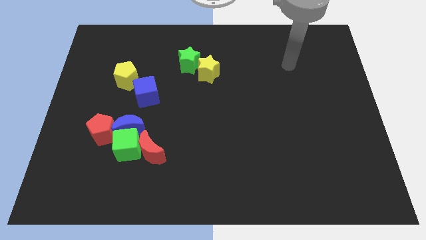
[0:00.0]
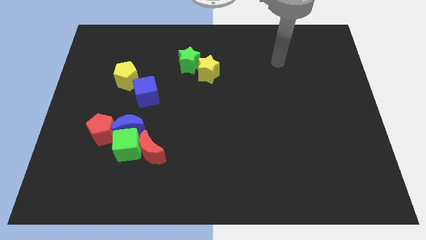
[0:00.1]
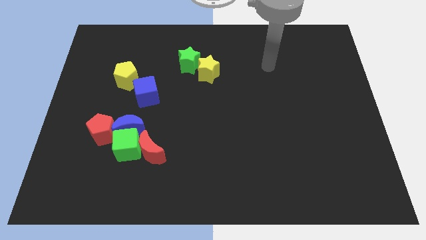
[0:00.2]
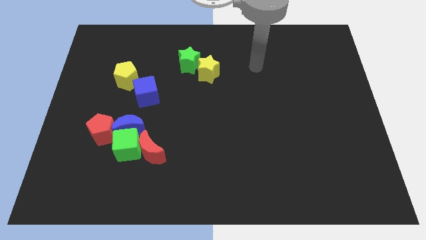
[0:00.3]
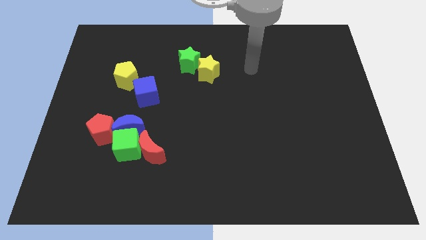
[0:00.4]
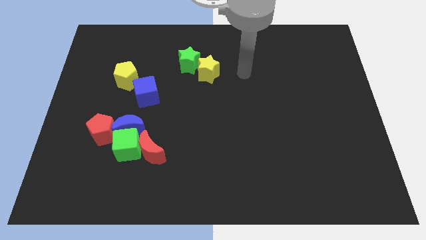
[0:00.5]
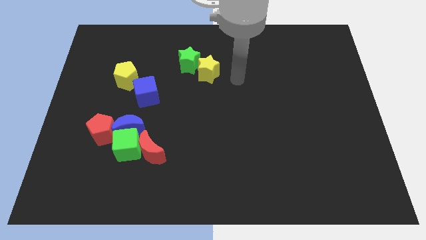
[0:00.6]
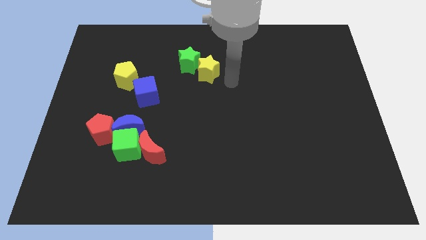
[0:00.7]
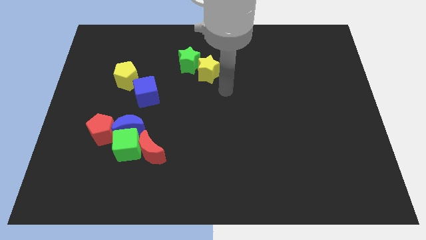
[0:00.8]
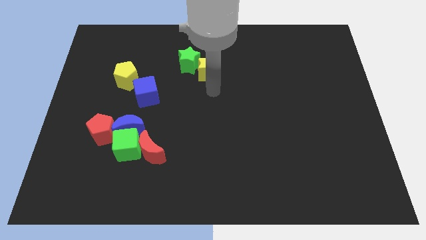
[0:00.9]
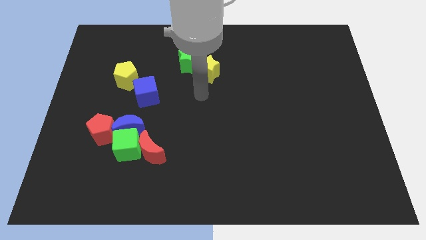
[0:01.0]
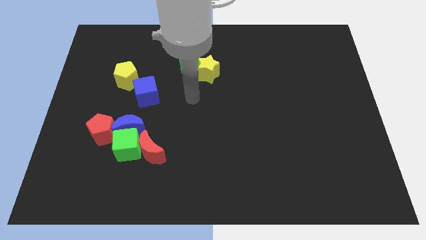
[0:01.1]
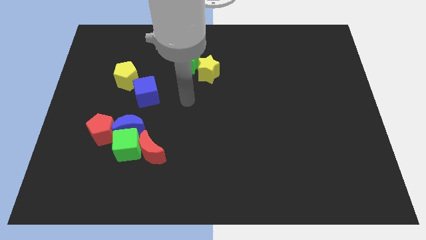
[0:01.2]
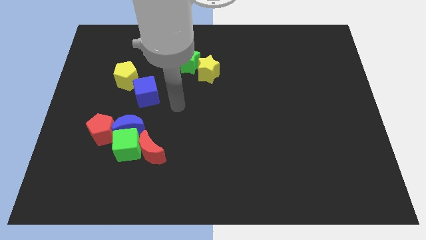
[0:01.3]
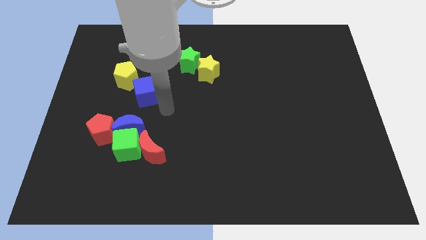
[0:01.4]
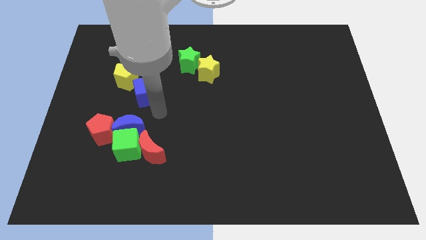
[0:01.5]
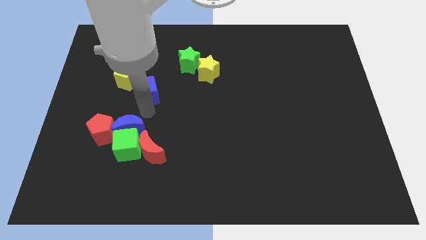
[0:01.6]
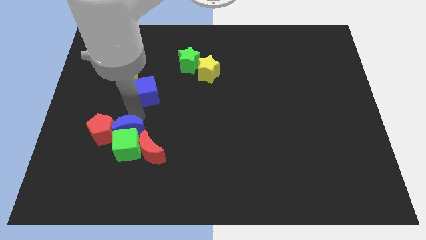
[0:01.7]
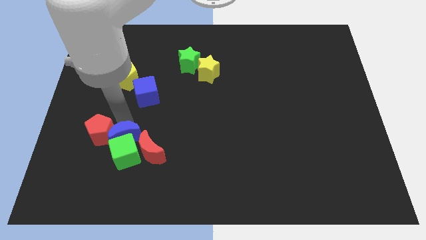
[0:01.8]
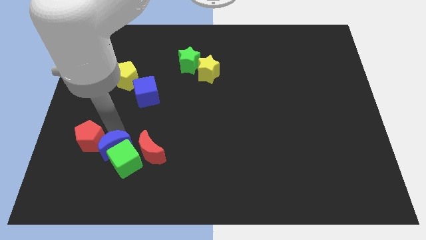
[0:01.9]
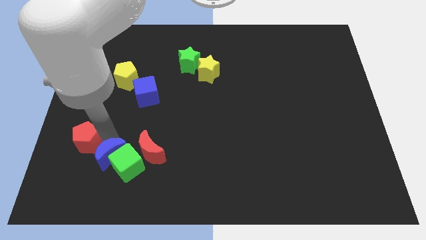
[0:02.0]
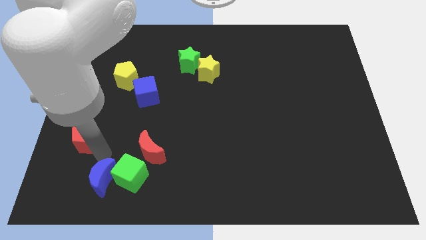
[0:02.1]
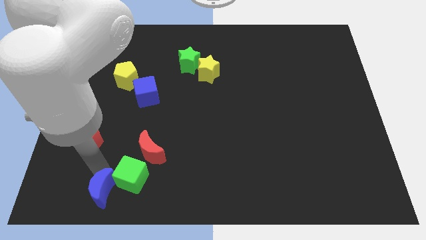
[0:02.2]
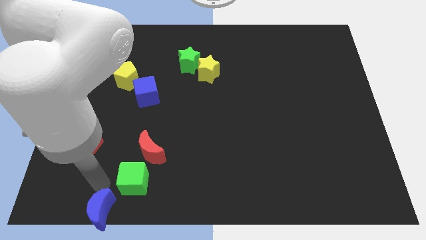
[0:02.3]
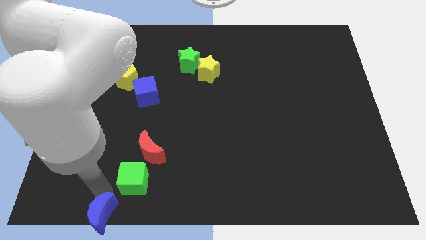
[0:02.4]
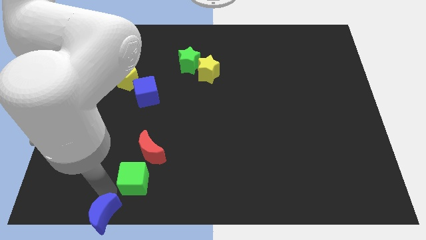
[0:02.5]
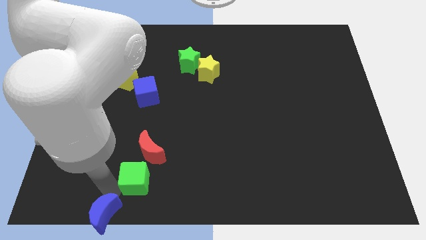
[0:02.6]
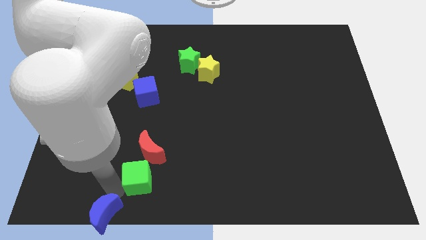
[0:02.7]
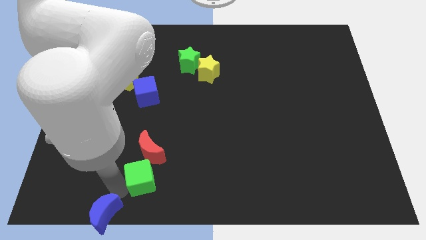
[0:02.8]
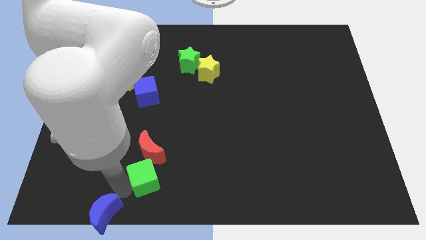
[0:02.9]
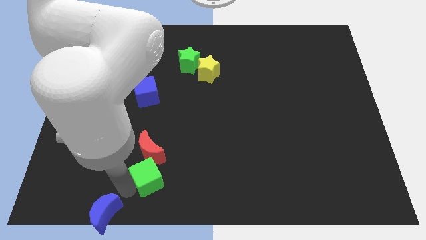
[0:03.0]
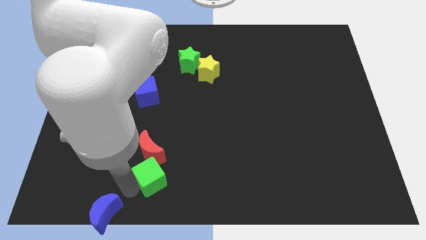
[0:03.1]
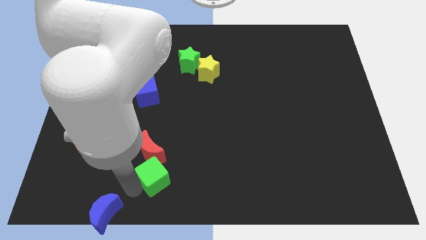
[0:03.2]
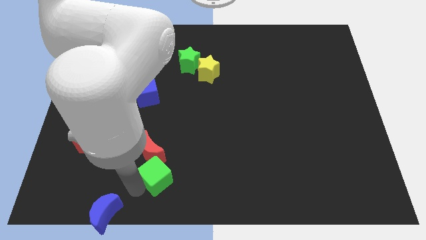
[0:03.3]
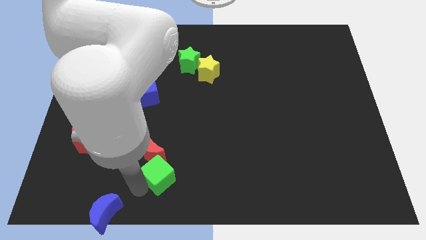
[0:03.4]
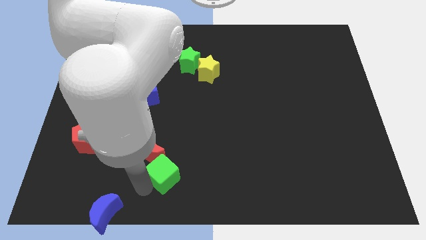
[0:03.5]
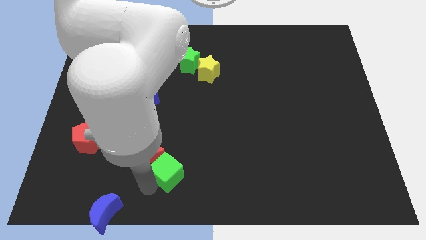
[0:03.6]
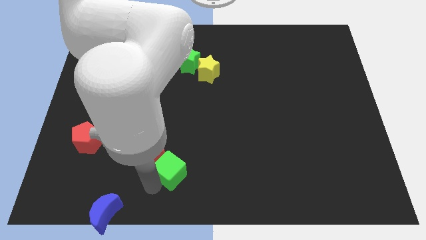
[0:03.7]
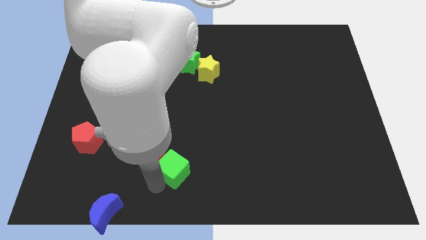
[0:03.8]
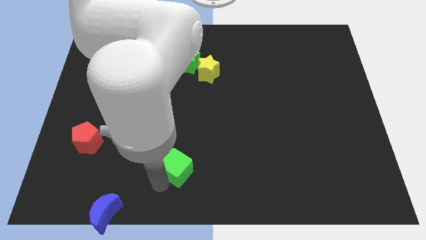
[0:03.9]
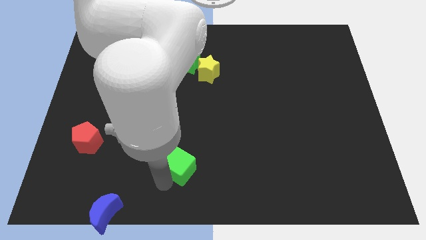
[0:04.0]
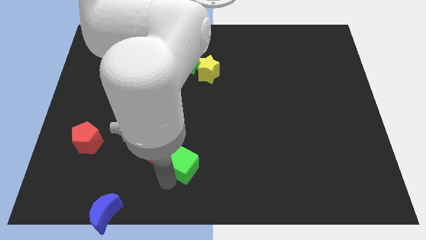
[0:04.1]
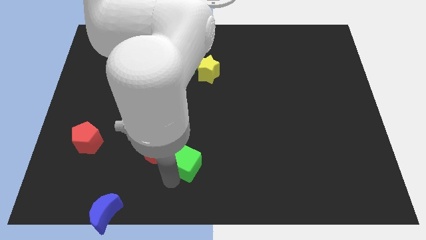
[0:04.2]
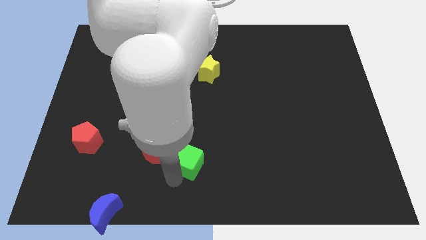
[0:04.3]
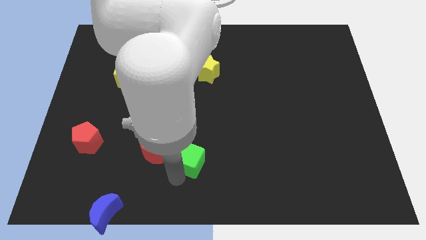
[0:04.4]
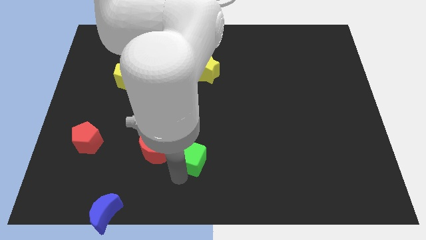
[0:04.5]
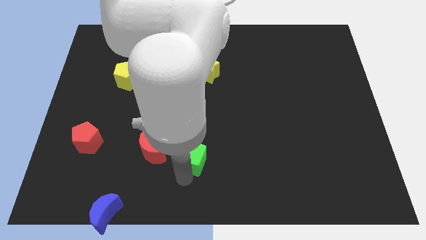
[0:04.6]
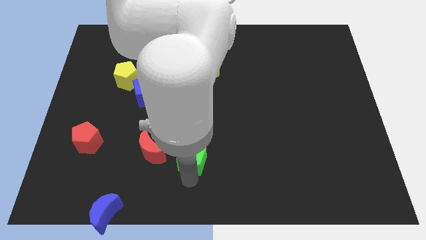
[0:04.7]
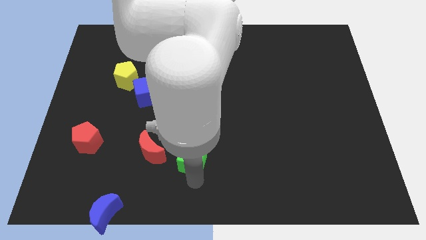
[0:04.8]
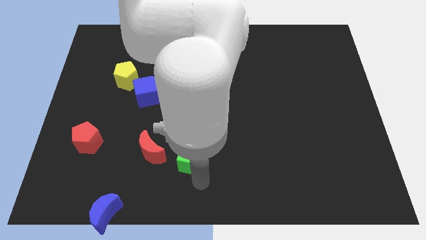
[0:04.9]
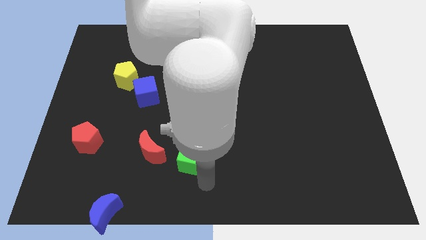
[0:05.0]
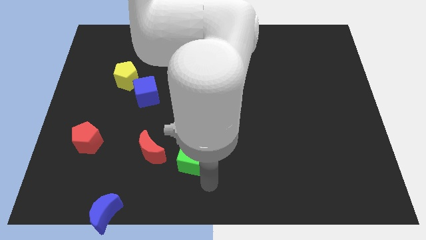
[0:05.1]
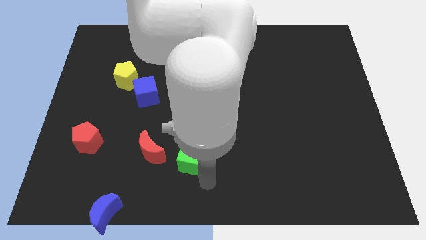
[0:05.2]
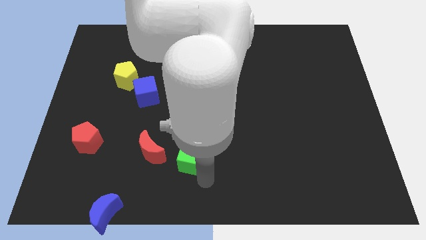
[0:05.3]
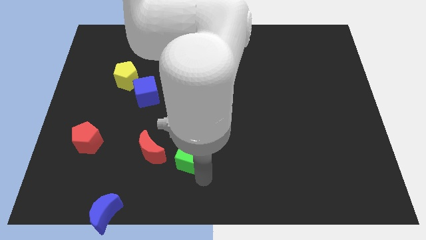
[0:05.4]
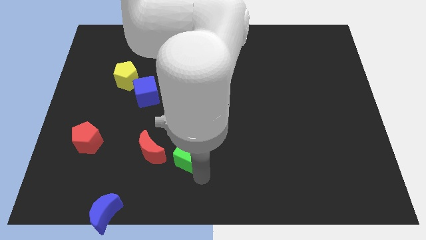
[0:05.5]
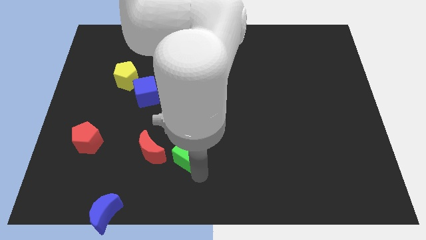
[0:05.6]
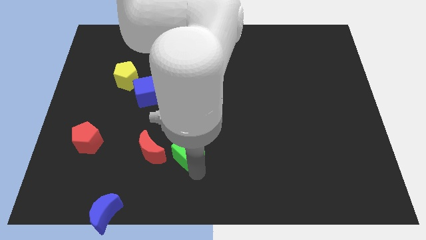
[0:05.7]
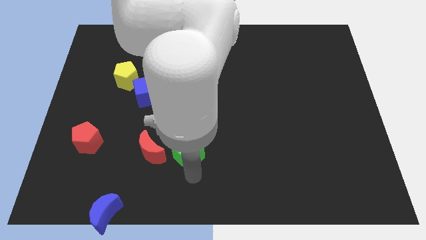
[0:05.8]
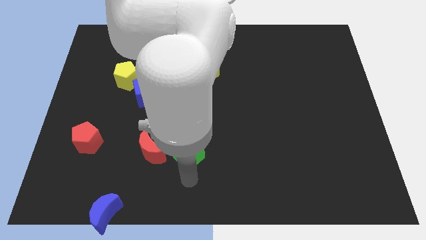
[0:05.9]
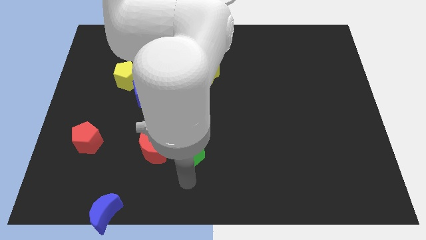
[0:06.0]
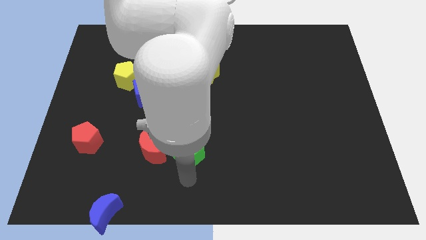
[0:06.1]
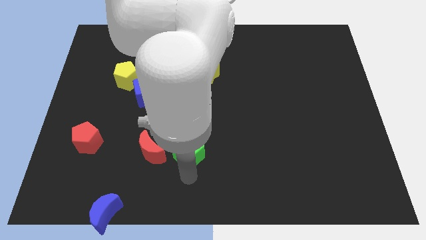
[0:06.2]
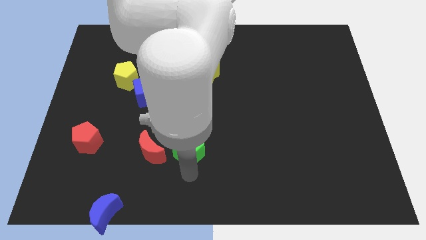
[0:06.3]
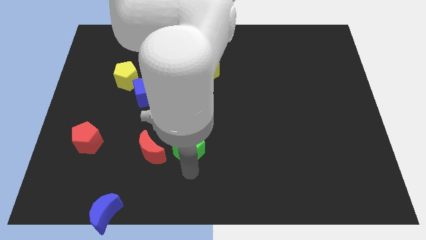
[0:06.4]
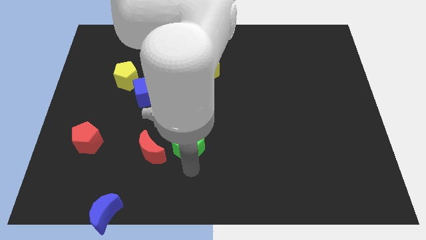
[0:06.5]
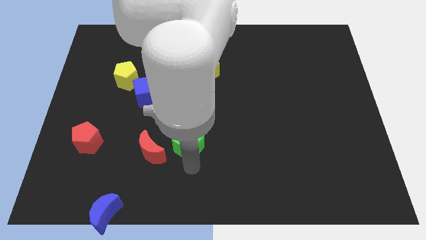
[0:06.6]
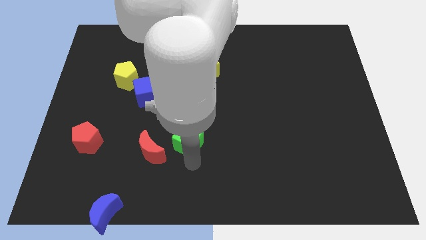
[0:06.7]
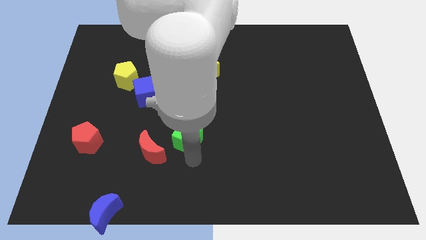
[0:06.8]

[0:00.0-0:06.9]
move the green cube to the middle
